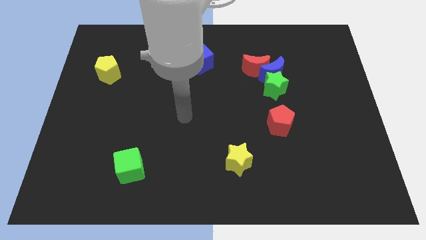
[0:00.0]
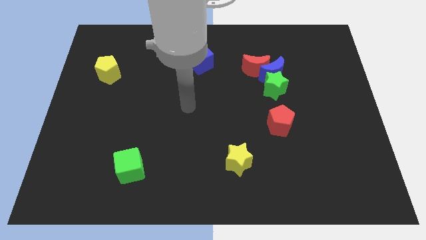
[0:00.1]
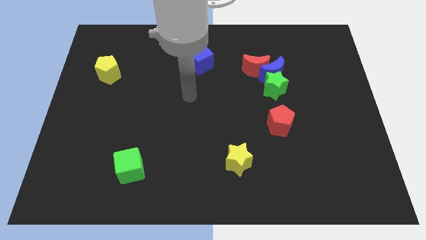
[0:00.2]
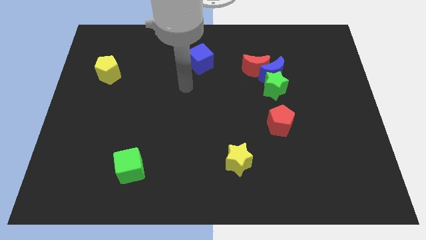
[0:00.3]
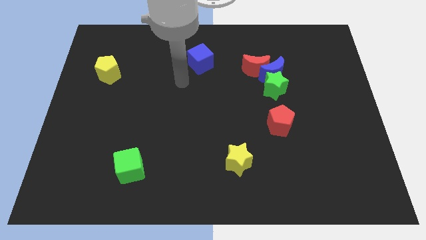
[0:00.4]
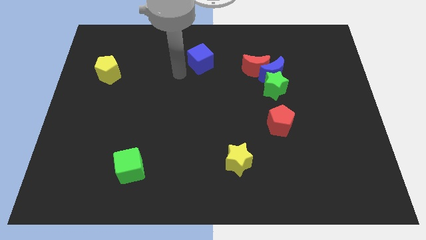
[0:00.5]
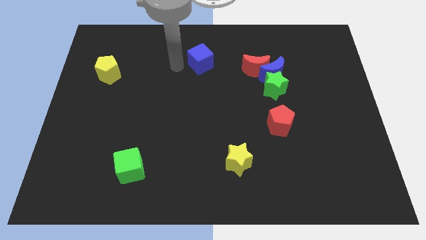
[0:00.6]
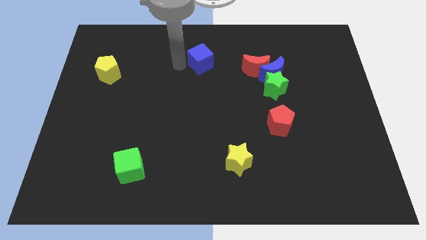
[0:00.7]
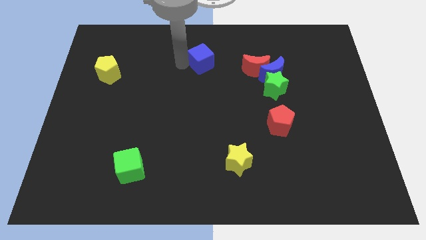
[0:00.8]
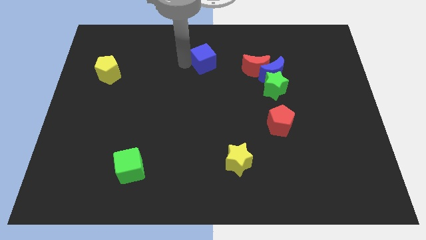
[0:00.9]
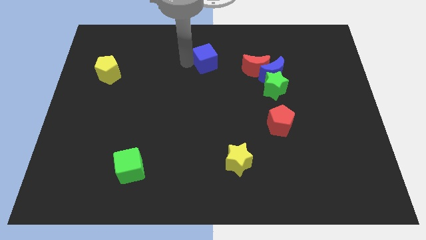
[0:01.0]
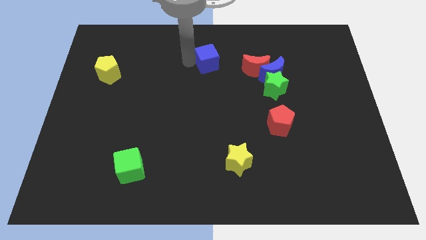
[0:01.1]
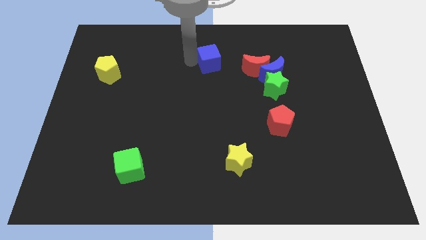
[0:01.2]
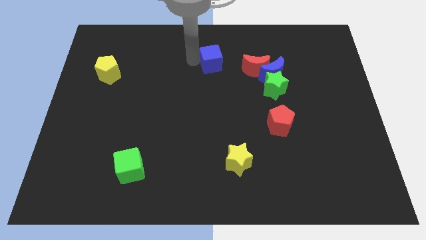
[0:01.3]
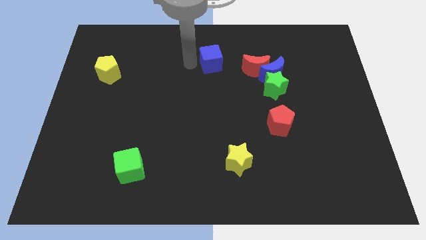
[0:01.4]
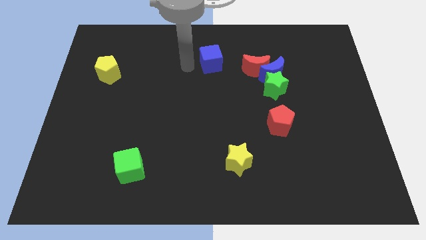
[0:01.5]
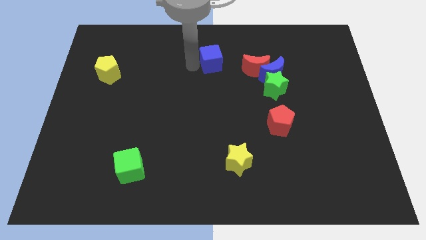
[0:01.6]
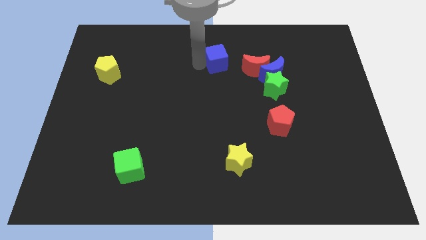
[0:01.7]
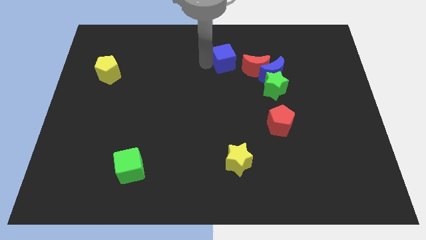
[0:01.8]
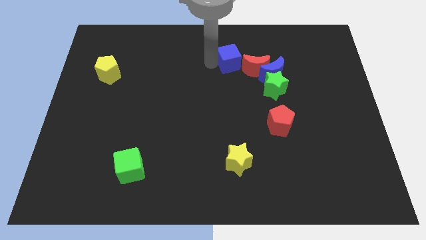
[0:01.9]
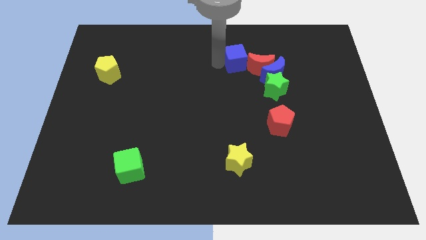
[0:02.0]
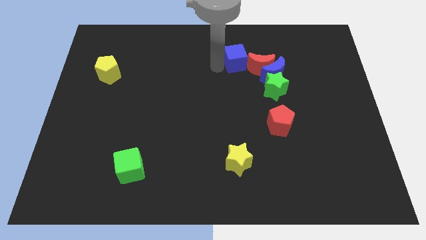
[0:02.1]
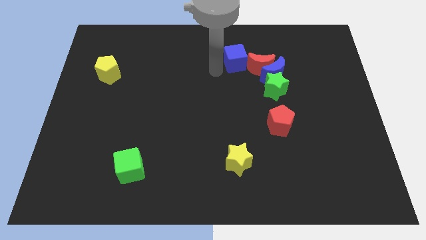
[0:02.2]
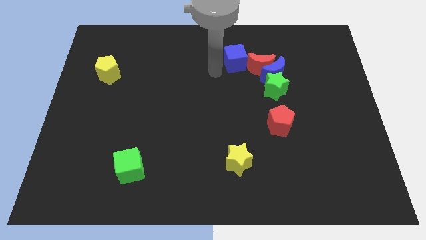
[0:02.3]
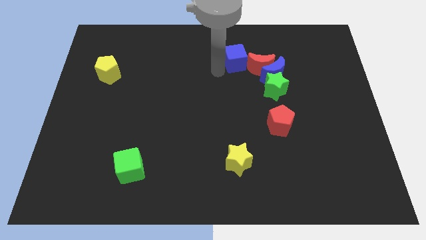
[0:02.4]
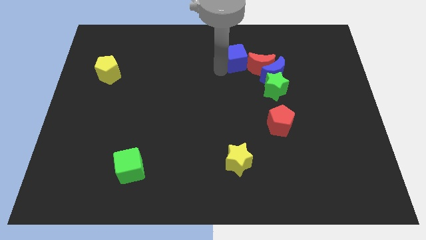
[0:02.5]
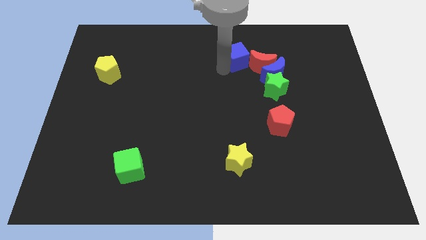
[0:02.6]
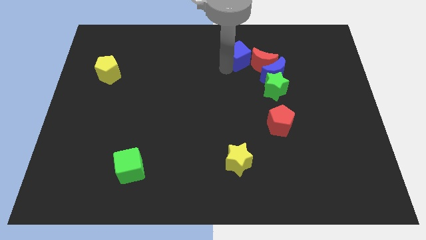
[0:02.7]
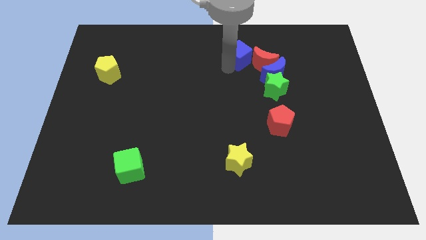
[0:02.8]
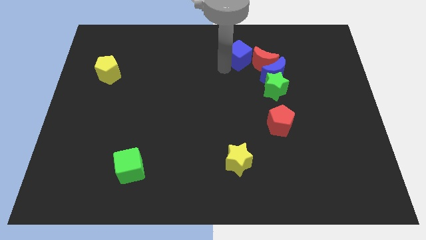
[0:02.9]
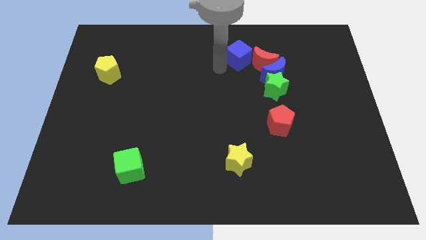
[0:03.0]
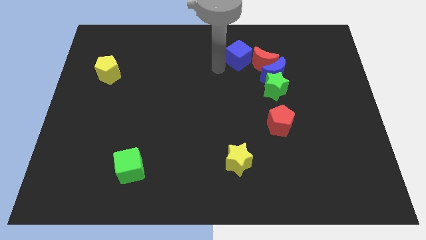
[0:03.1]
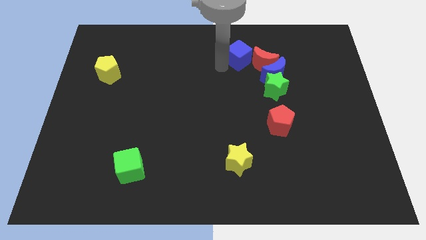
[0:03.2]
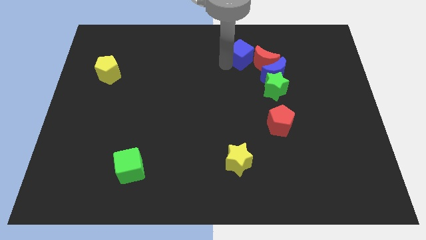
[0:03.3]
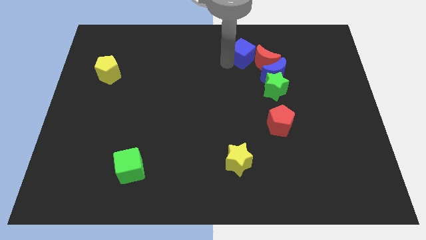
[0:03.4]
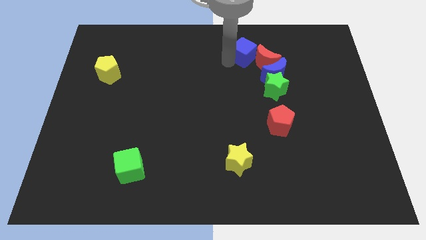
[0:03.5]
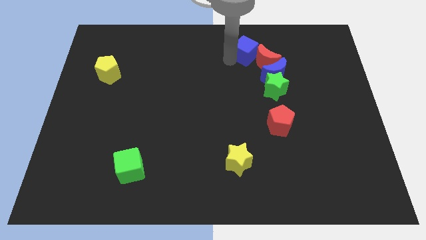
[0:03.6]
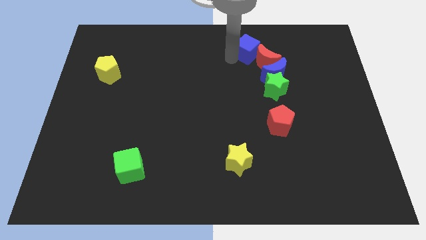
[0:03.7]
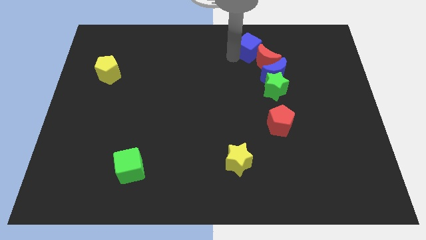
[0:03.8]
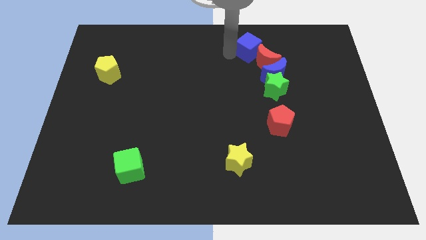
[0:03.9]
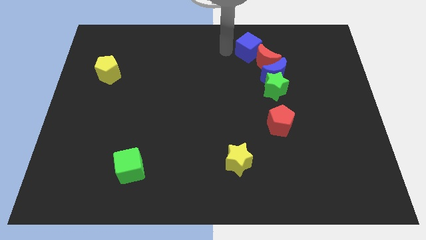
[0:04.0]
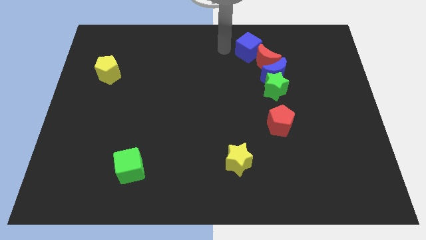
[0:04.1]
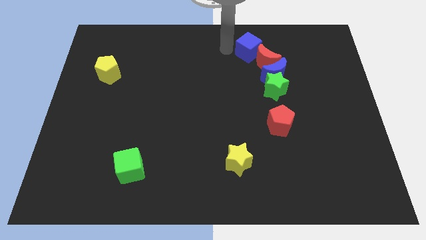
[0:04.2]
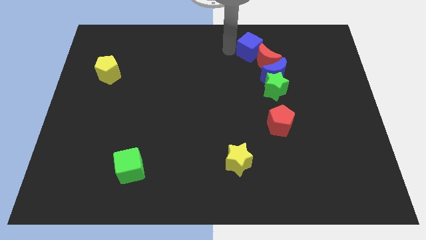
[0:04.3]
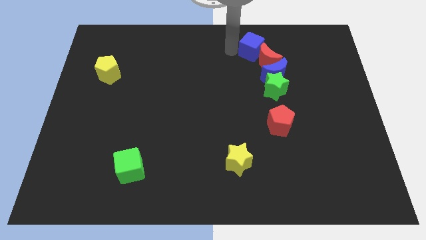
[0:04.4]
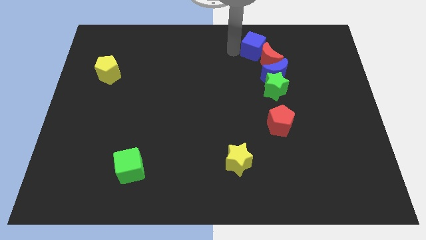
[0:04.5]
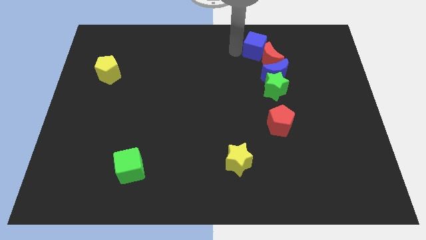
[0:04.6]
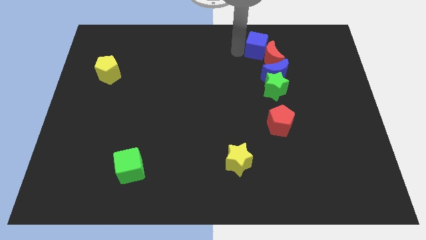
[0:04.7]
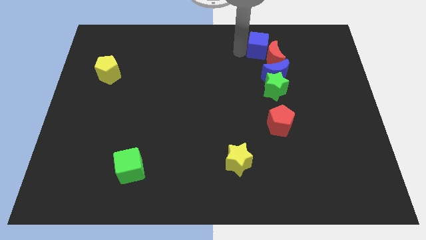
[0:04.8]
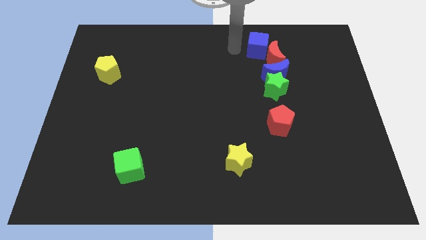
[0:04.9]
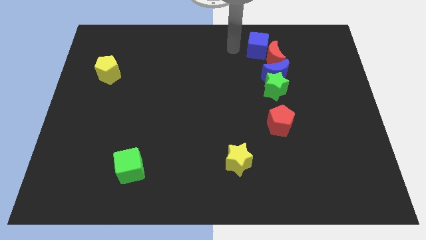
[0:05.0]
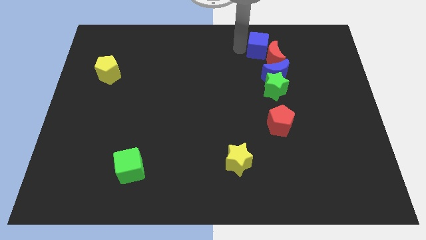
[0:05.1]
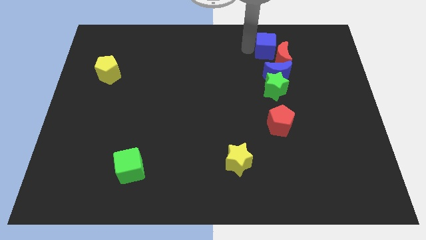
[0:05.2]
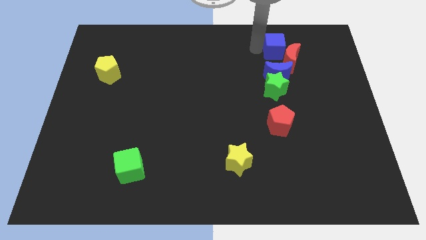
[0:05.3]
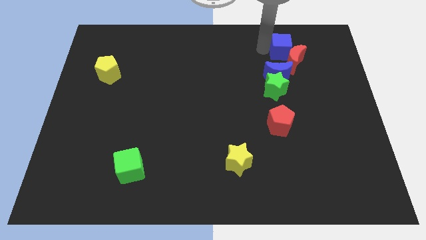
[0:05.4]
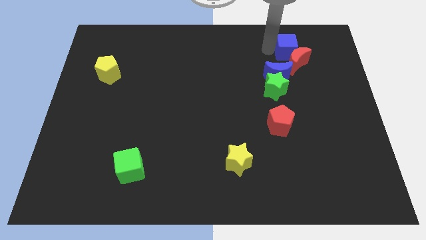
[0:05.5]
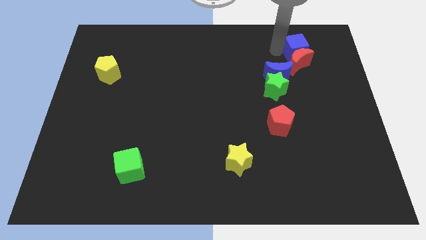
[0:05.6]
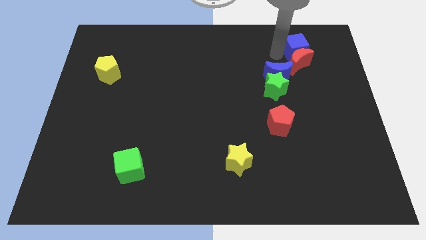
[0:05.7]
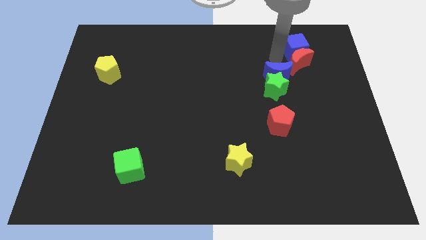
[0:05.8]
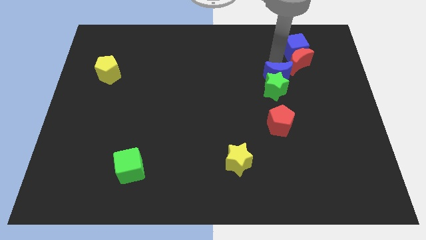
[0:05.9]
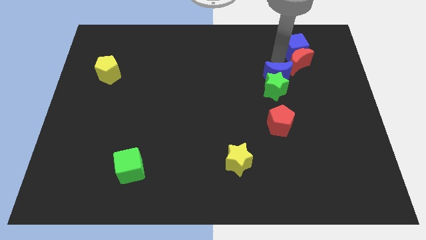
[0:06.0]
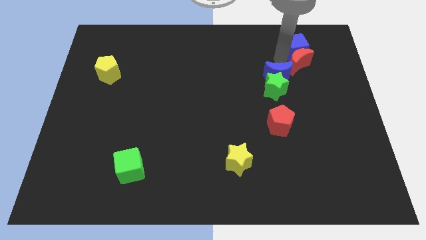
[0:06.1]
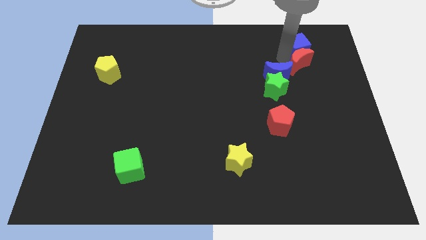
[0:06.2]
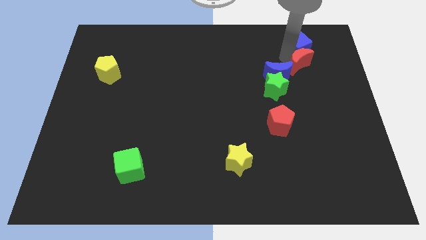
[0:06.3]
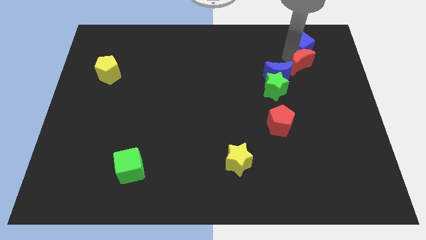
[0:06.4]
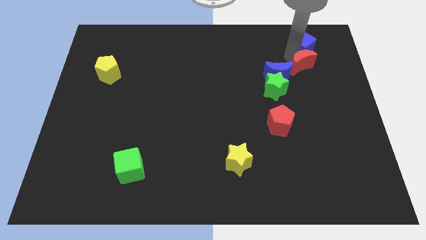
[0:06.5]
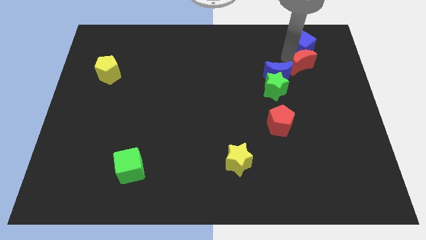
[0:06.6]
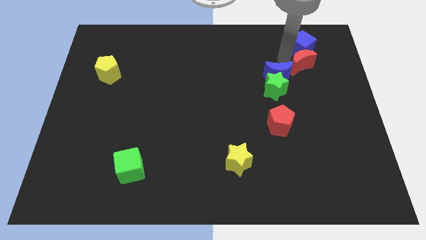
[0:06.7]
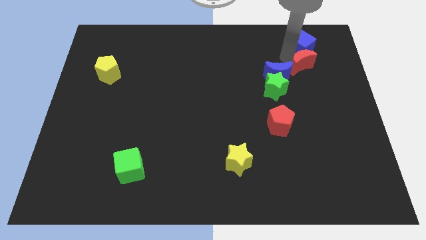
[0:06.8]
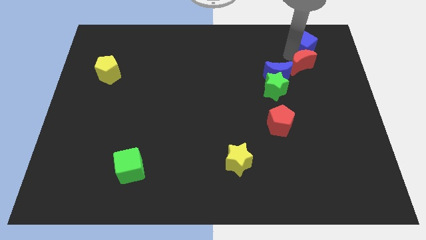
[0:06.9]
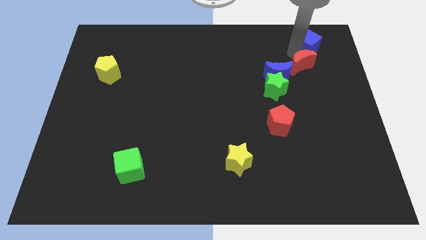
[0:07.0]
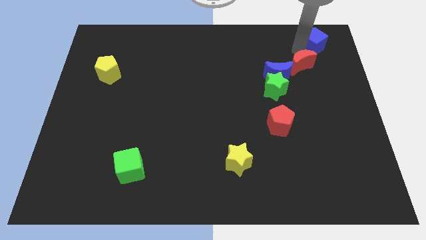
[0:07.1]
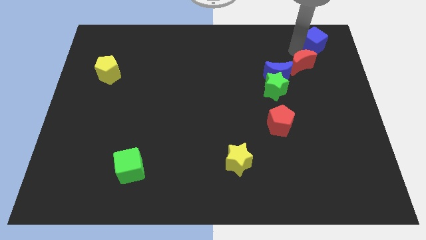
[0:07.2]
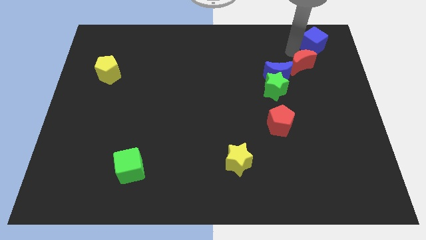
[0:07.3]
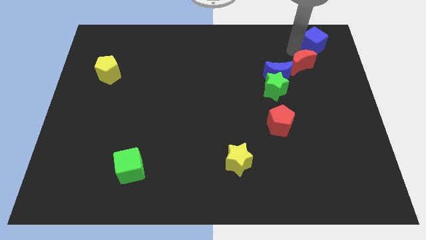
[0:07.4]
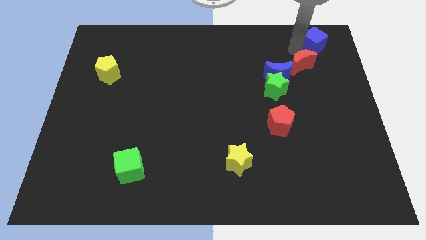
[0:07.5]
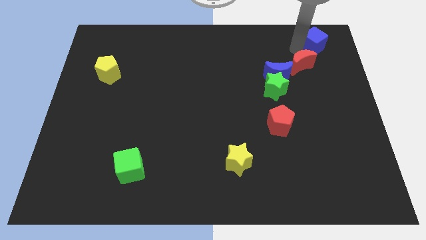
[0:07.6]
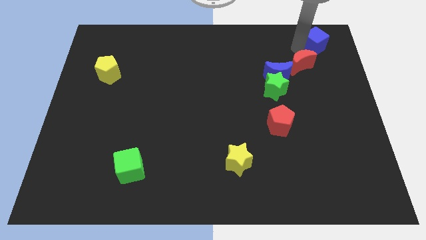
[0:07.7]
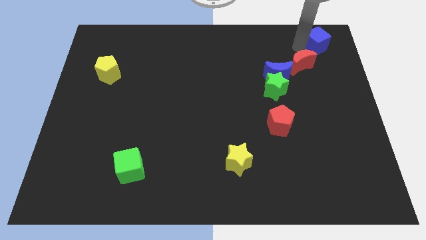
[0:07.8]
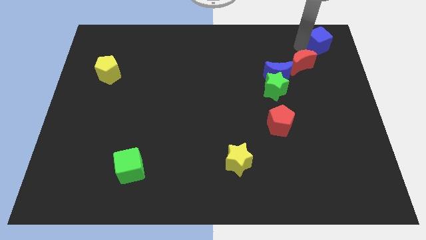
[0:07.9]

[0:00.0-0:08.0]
slide the blue cube to the upper right corner
